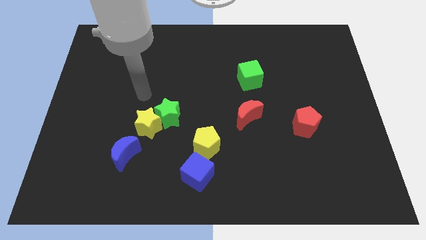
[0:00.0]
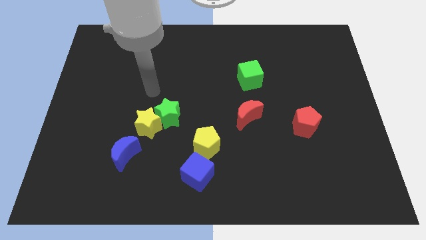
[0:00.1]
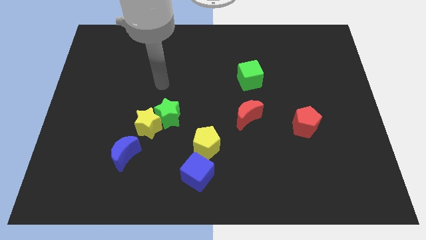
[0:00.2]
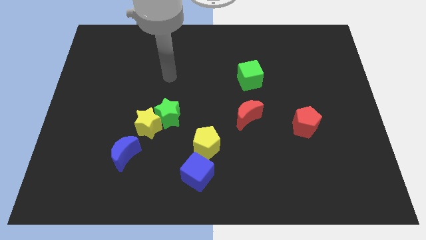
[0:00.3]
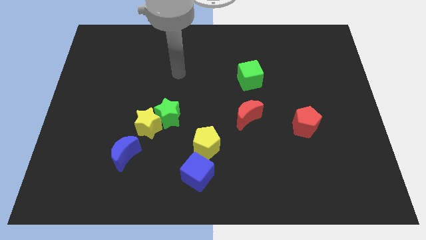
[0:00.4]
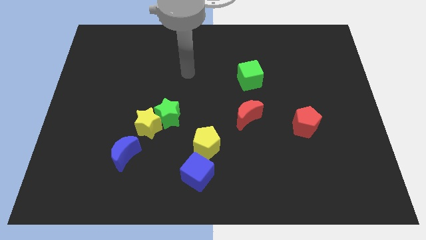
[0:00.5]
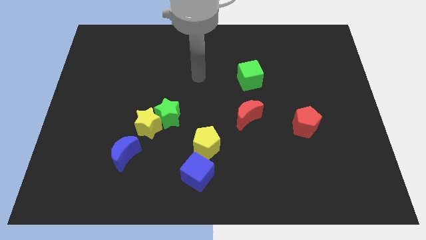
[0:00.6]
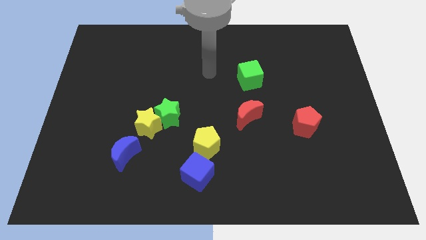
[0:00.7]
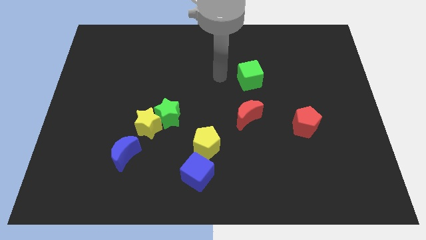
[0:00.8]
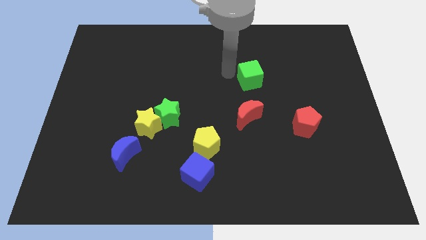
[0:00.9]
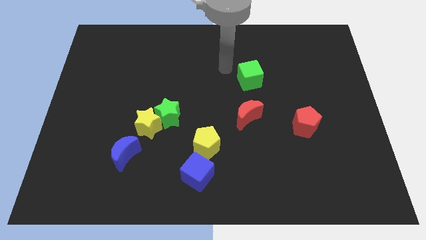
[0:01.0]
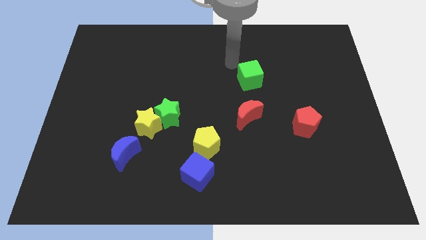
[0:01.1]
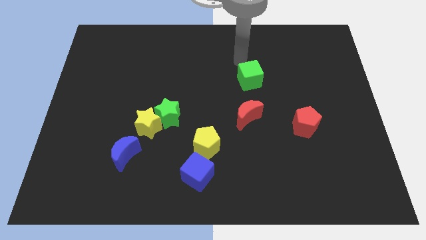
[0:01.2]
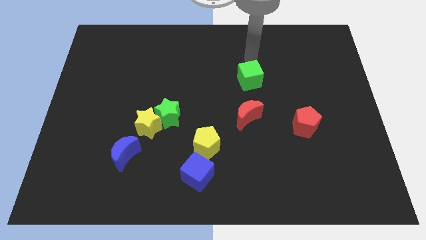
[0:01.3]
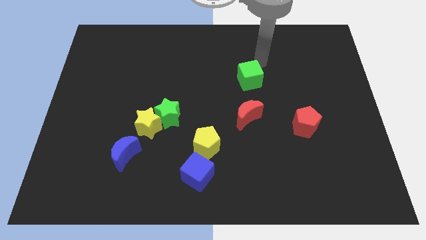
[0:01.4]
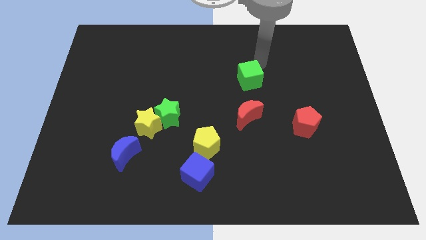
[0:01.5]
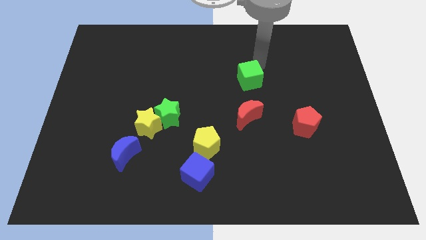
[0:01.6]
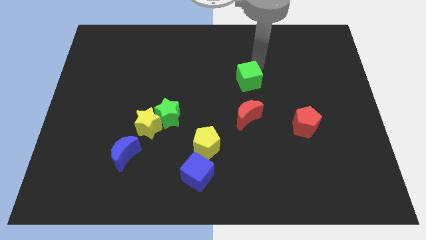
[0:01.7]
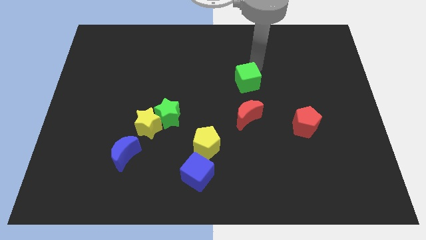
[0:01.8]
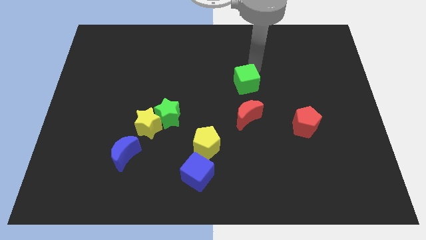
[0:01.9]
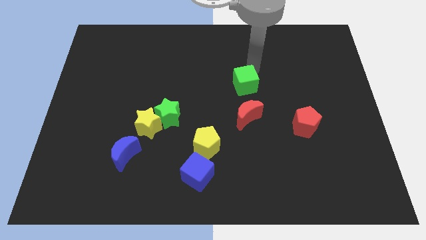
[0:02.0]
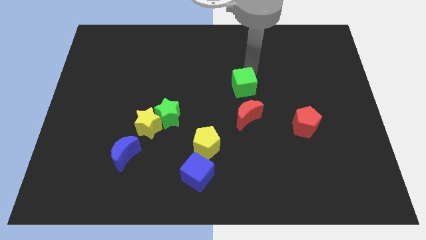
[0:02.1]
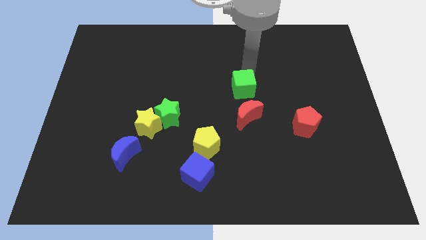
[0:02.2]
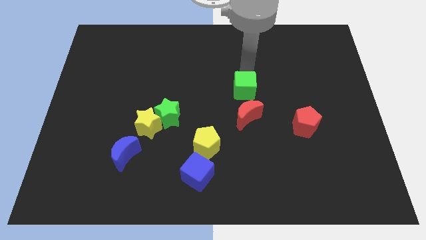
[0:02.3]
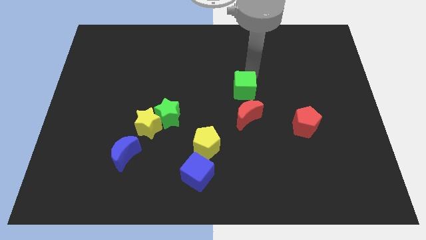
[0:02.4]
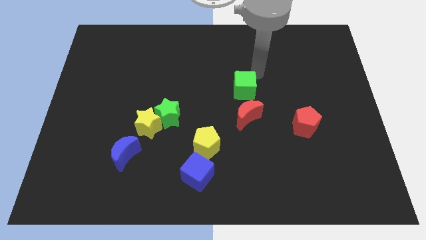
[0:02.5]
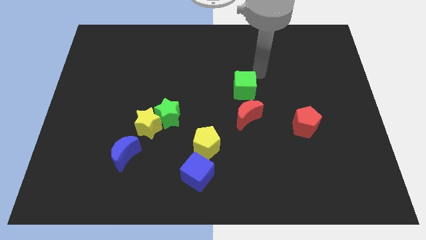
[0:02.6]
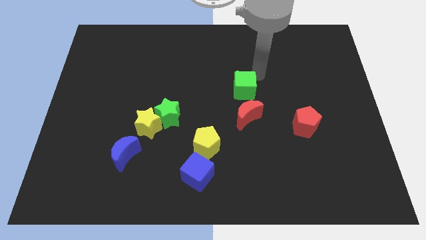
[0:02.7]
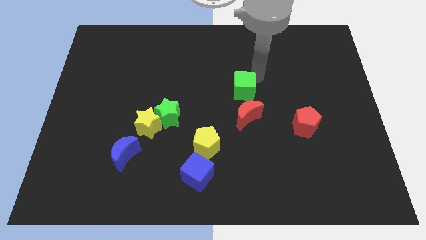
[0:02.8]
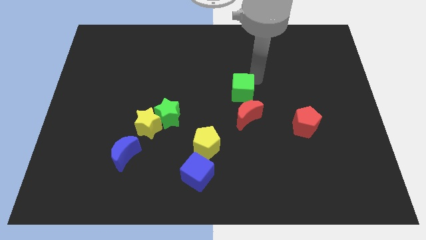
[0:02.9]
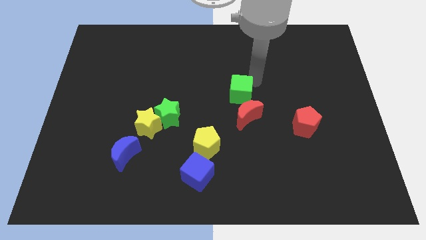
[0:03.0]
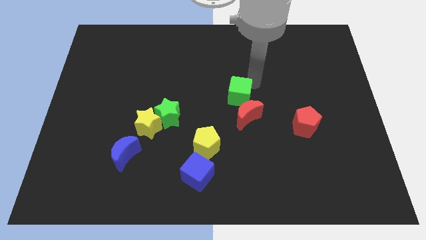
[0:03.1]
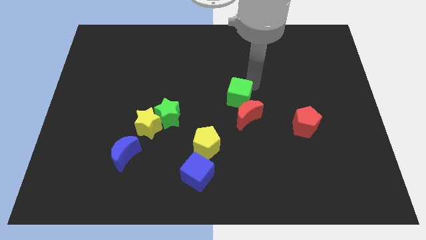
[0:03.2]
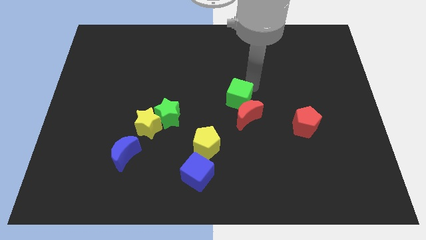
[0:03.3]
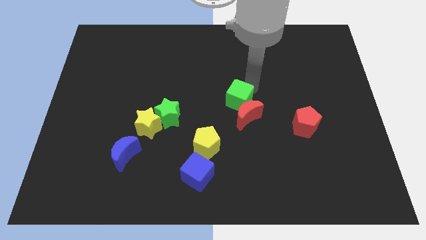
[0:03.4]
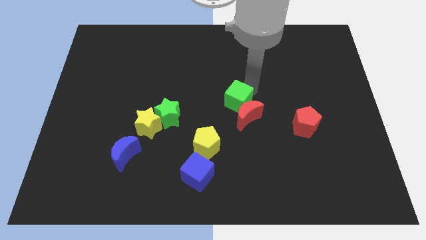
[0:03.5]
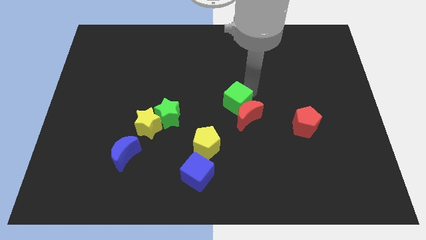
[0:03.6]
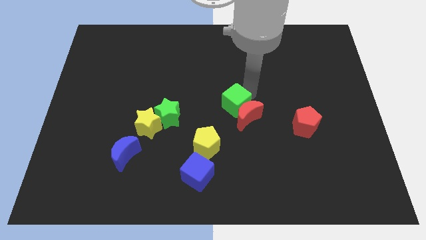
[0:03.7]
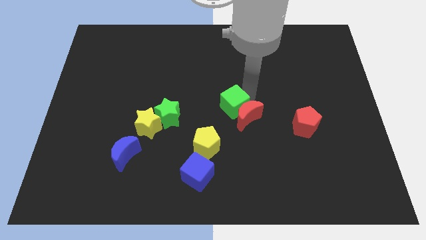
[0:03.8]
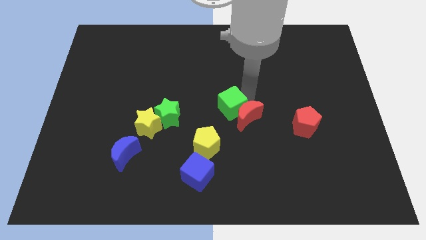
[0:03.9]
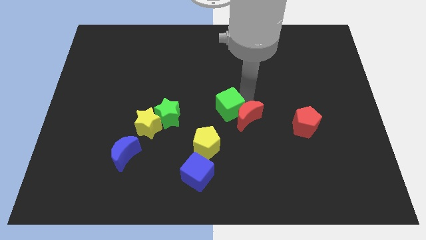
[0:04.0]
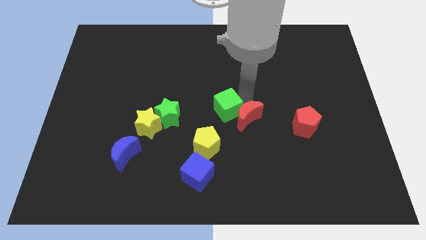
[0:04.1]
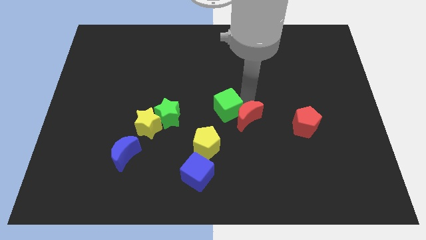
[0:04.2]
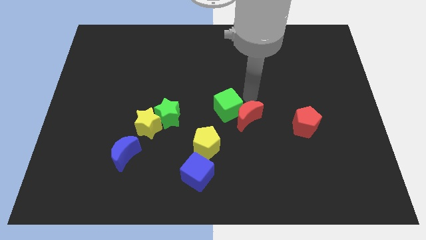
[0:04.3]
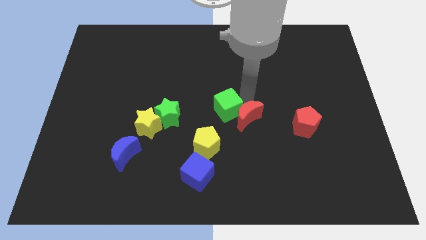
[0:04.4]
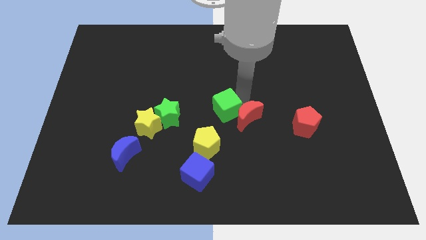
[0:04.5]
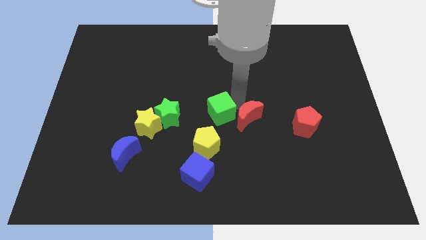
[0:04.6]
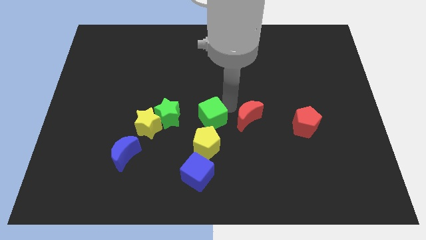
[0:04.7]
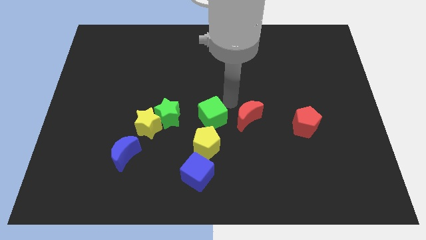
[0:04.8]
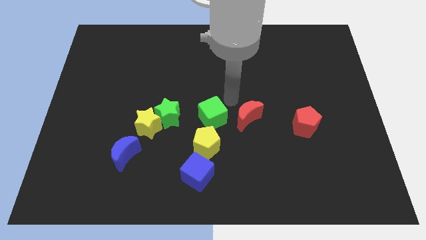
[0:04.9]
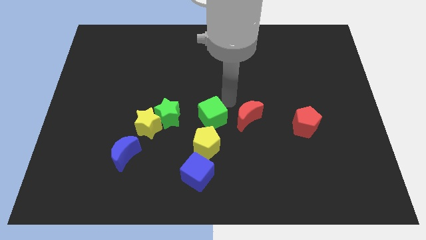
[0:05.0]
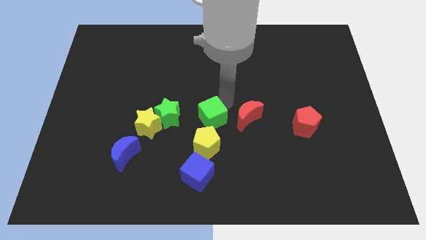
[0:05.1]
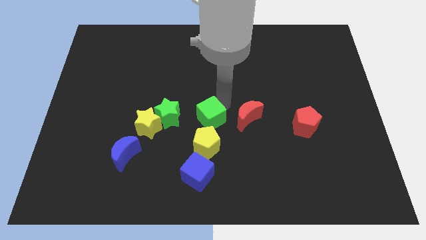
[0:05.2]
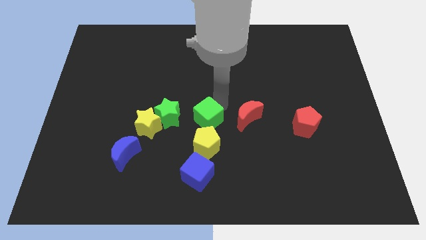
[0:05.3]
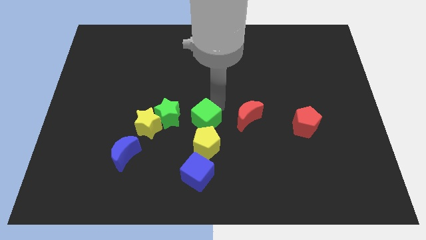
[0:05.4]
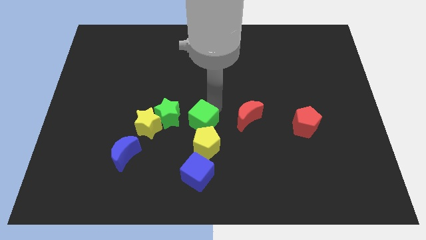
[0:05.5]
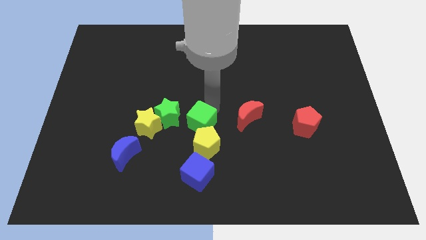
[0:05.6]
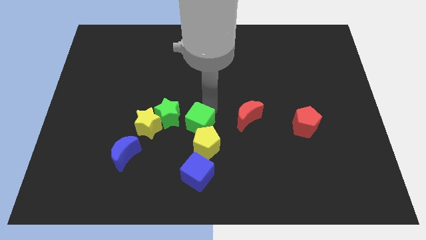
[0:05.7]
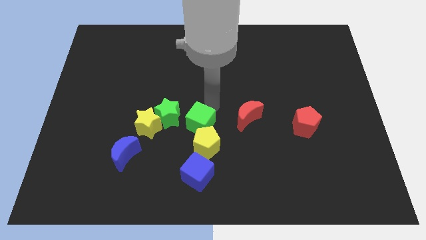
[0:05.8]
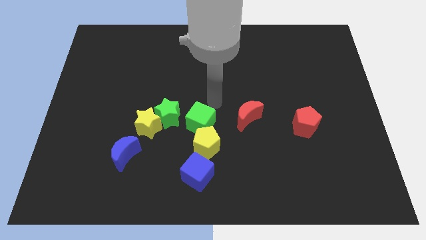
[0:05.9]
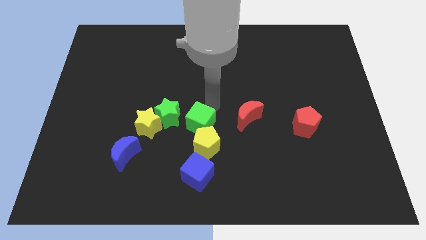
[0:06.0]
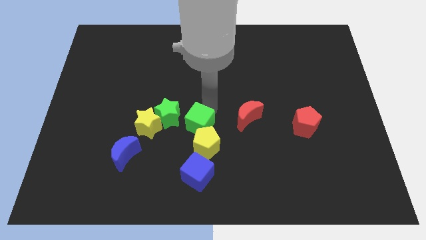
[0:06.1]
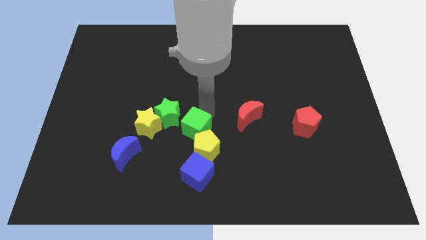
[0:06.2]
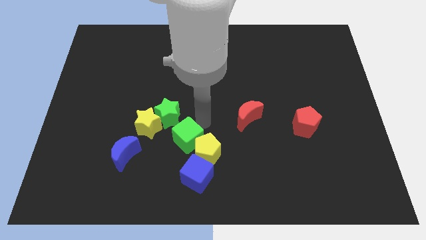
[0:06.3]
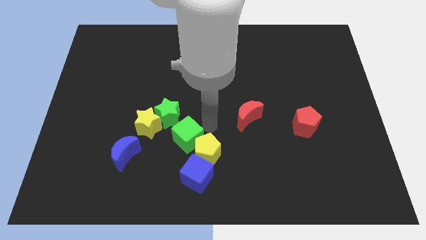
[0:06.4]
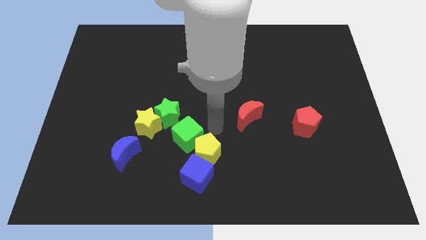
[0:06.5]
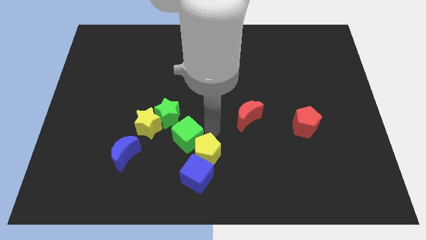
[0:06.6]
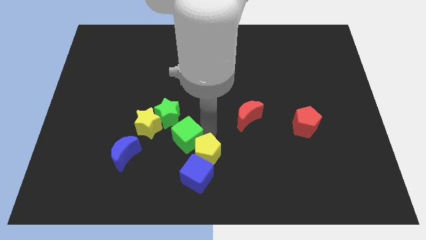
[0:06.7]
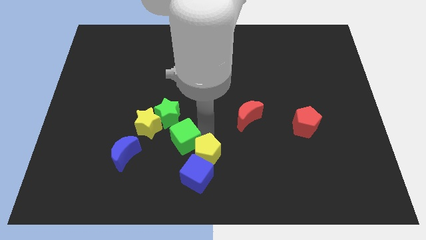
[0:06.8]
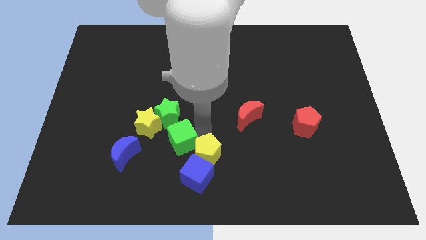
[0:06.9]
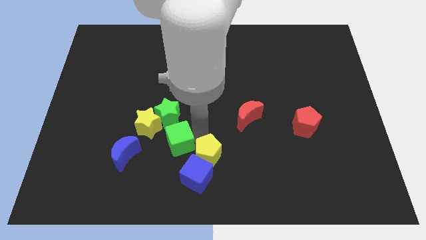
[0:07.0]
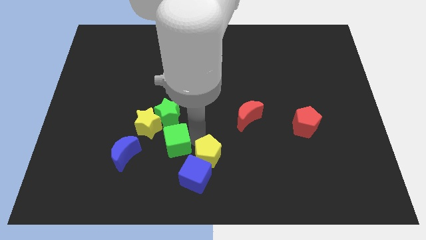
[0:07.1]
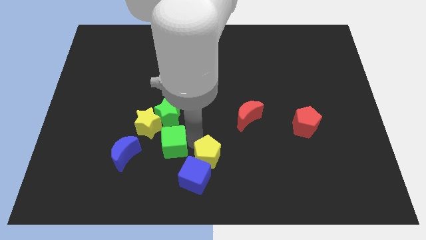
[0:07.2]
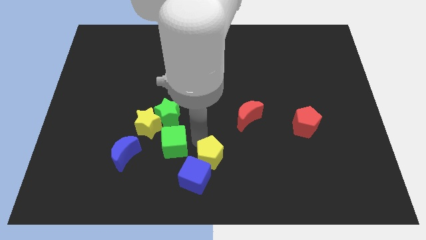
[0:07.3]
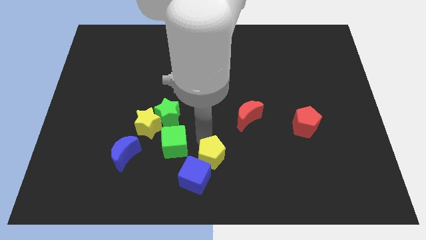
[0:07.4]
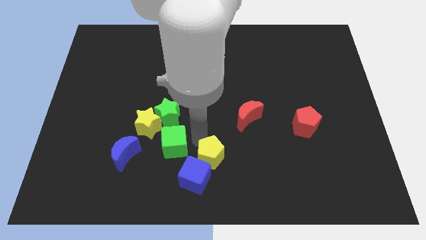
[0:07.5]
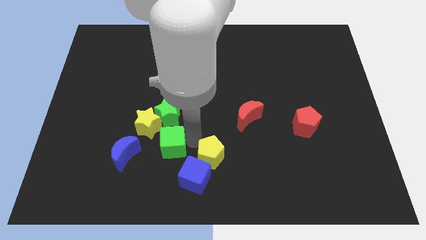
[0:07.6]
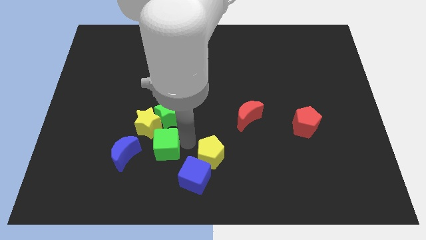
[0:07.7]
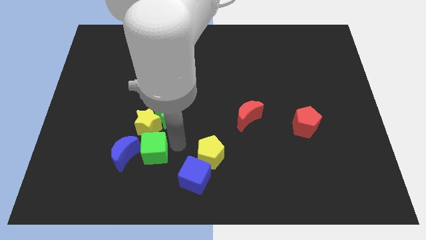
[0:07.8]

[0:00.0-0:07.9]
push the green cube to the blue moon
